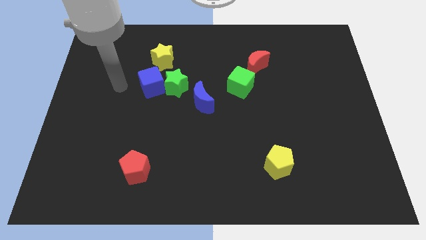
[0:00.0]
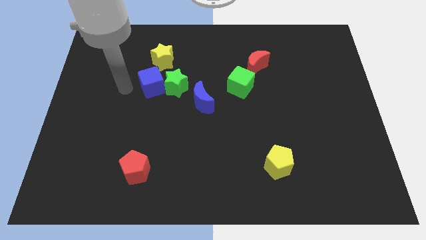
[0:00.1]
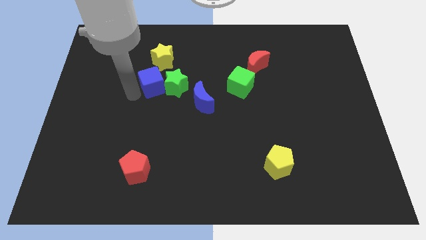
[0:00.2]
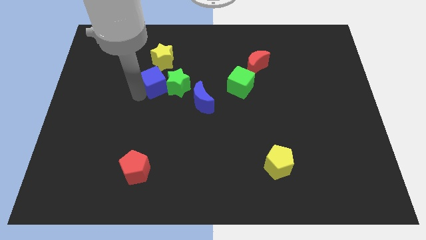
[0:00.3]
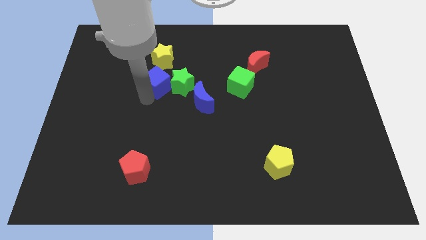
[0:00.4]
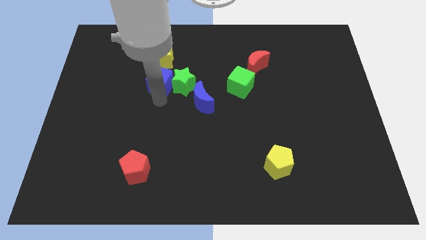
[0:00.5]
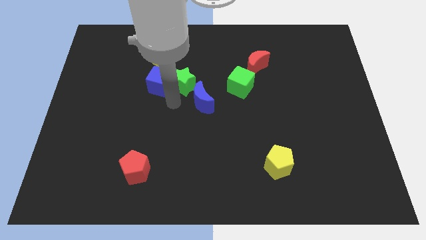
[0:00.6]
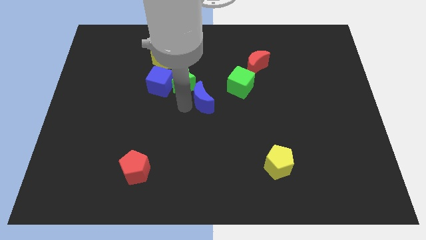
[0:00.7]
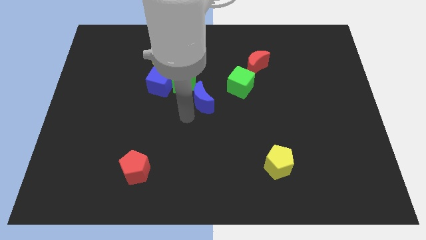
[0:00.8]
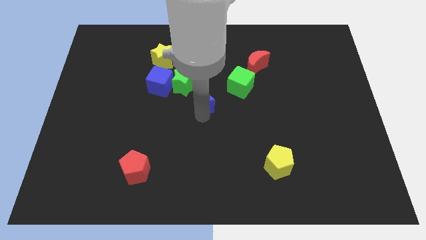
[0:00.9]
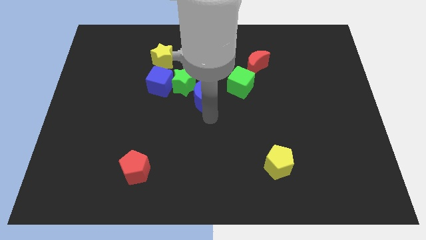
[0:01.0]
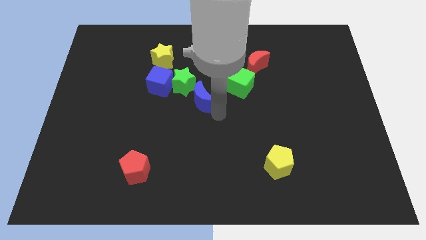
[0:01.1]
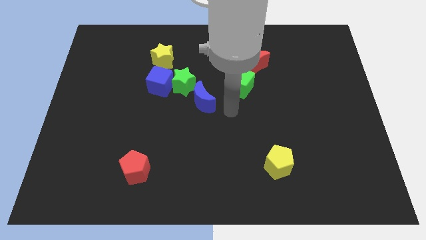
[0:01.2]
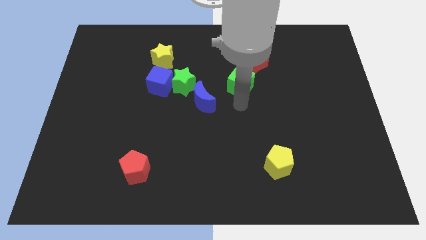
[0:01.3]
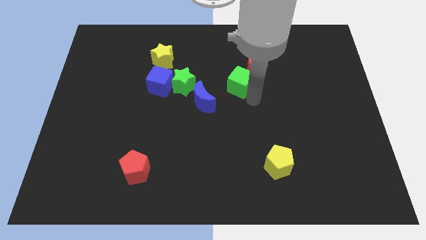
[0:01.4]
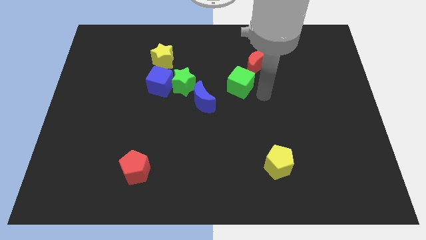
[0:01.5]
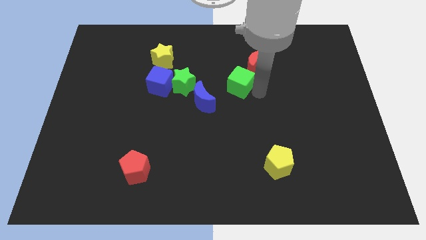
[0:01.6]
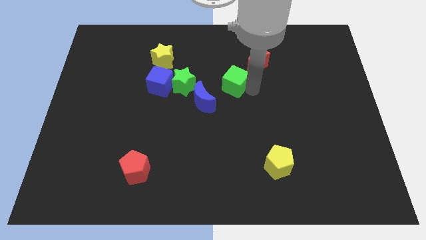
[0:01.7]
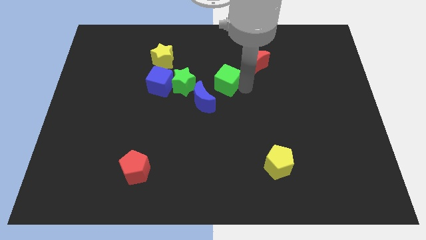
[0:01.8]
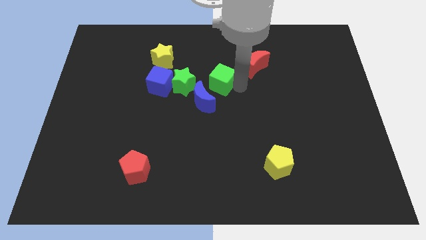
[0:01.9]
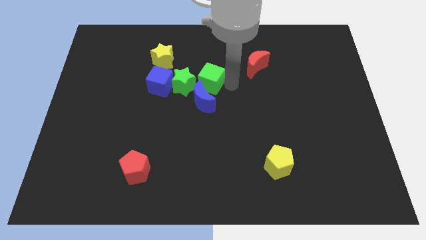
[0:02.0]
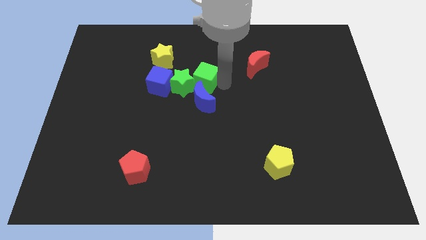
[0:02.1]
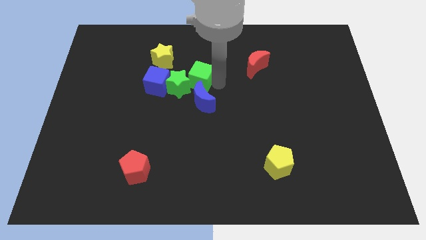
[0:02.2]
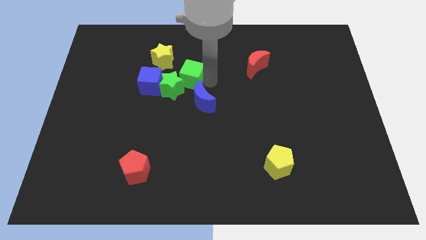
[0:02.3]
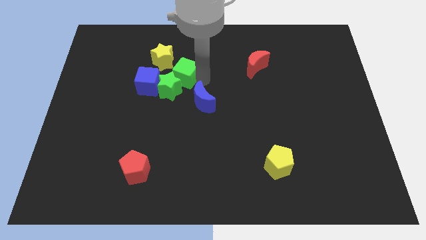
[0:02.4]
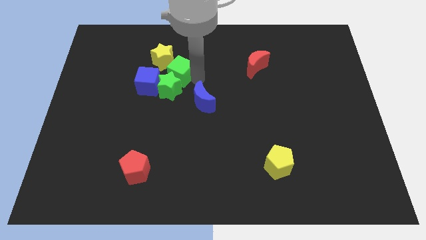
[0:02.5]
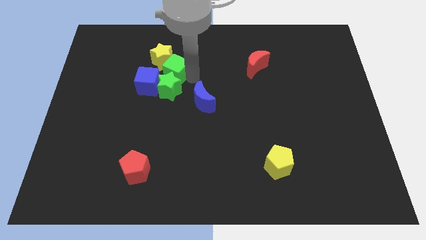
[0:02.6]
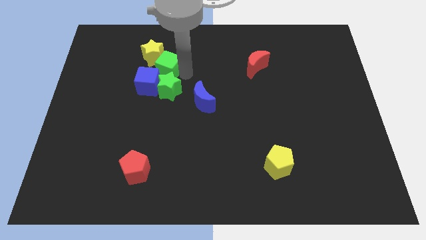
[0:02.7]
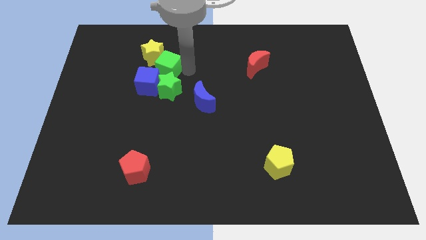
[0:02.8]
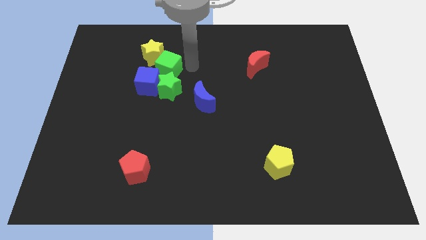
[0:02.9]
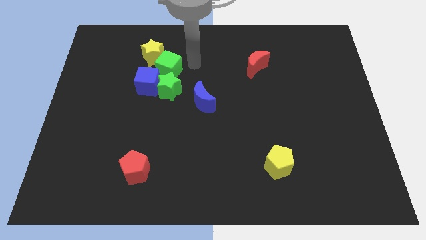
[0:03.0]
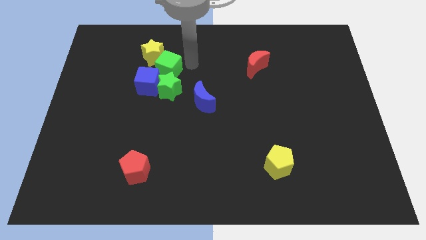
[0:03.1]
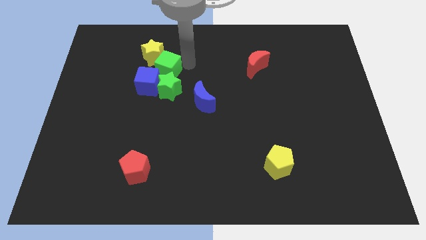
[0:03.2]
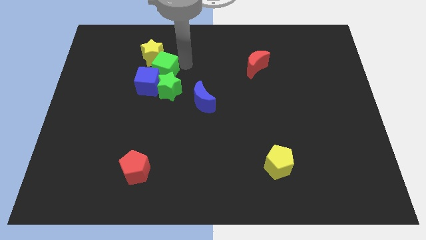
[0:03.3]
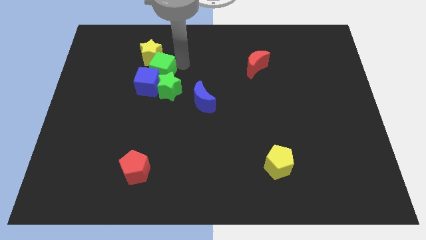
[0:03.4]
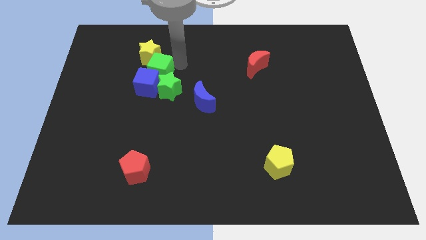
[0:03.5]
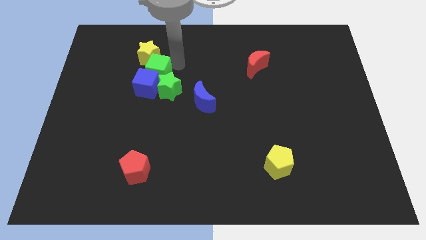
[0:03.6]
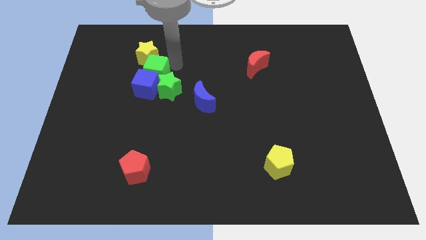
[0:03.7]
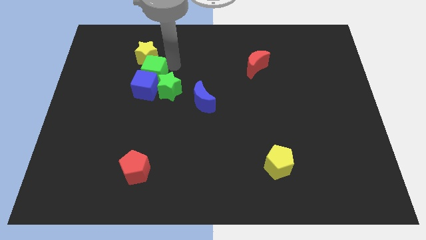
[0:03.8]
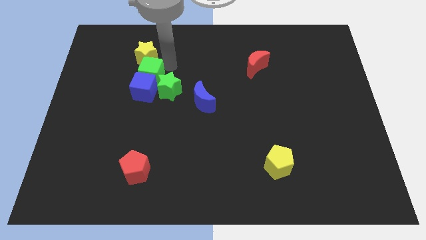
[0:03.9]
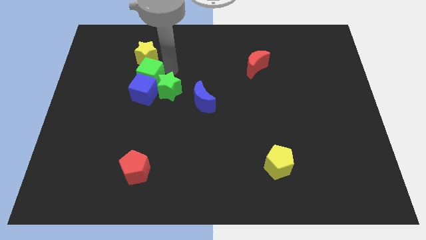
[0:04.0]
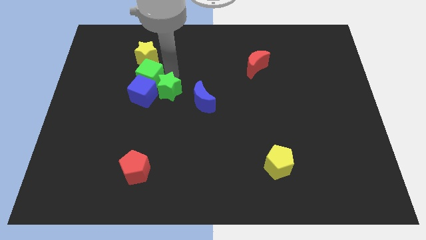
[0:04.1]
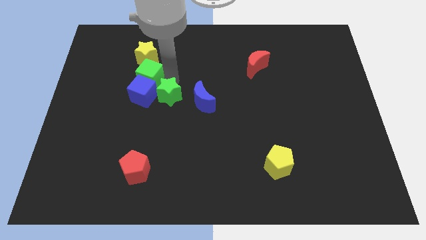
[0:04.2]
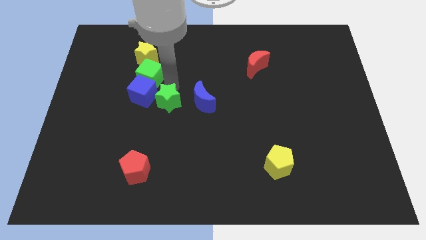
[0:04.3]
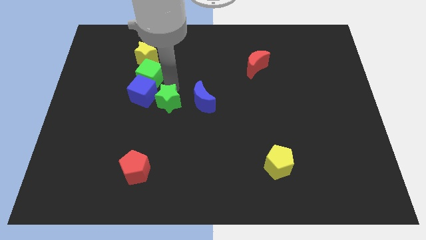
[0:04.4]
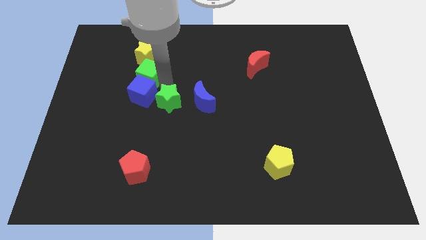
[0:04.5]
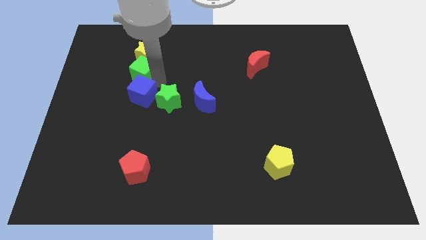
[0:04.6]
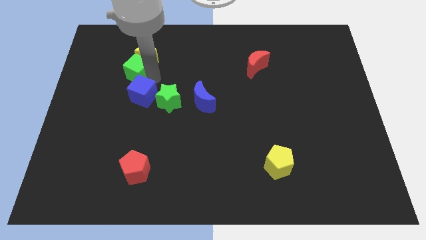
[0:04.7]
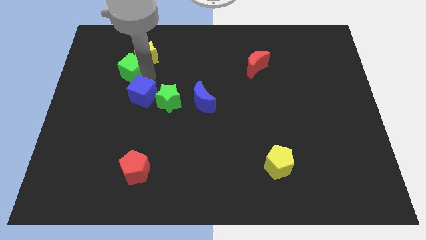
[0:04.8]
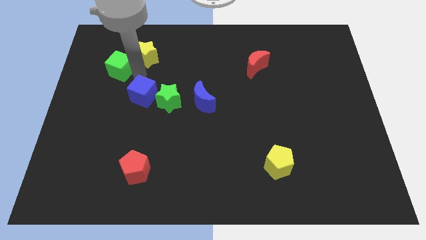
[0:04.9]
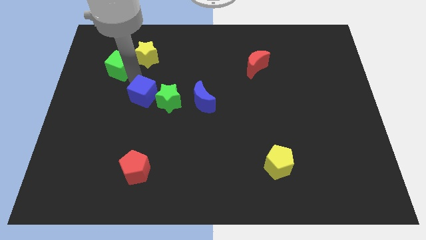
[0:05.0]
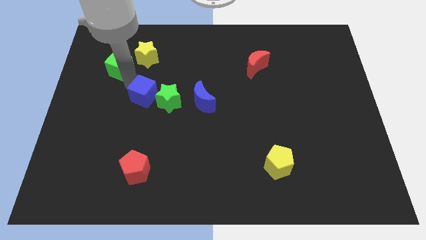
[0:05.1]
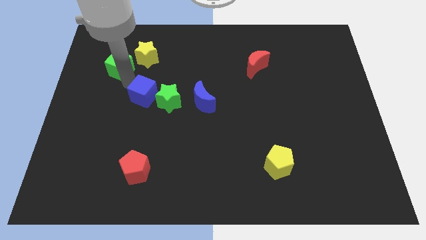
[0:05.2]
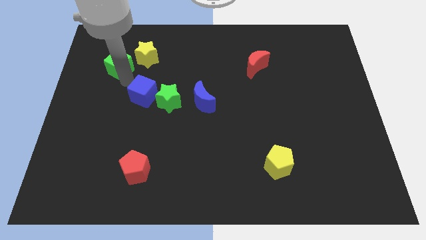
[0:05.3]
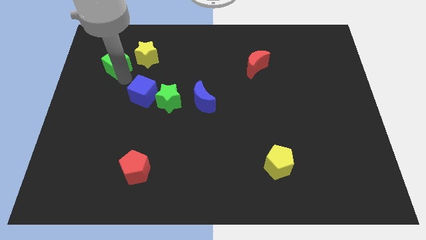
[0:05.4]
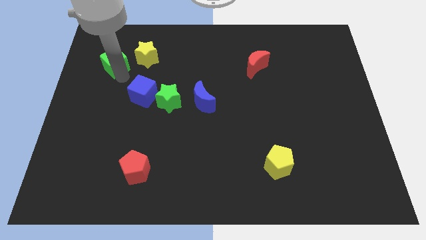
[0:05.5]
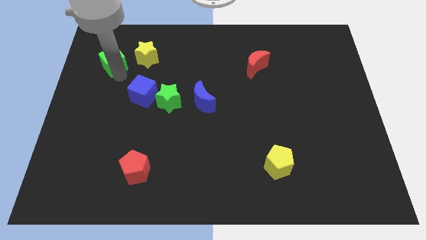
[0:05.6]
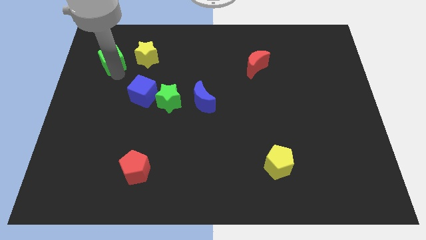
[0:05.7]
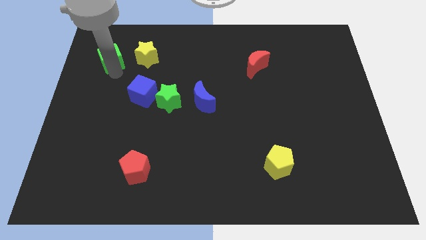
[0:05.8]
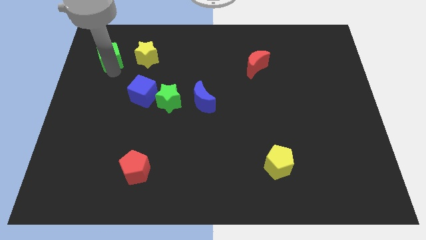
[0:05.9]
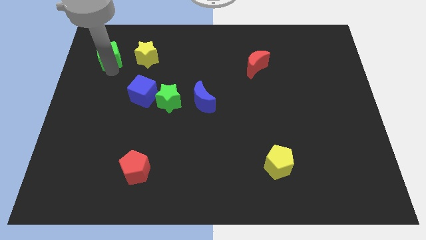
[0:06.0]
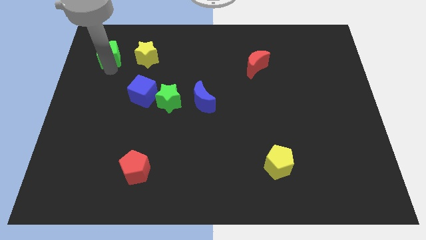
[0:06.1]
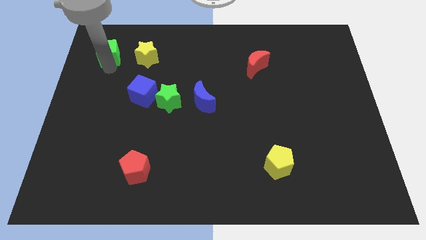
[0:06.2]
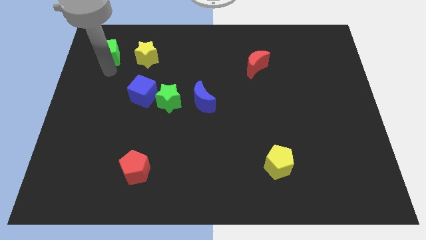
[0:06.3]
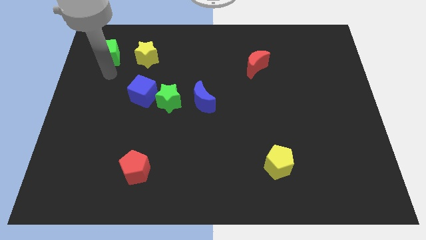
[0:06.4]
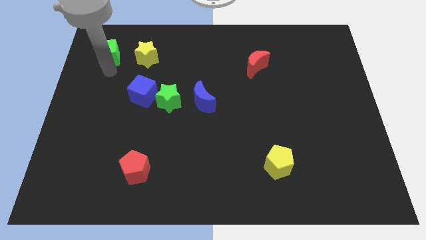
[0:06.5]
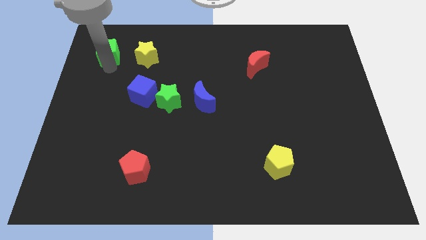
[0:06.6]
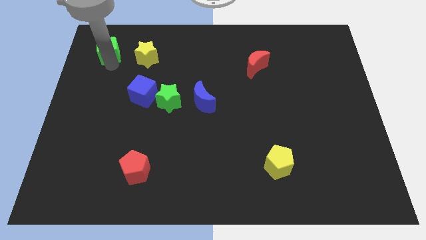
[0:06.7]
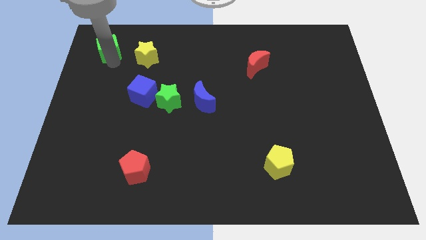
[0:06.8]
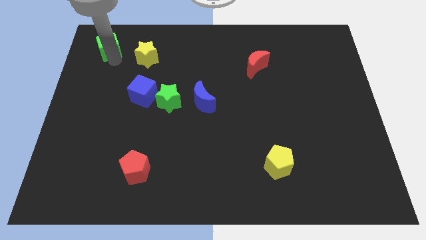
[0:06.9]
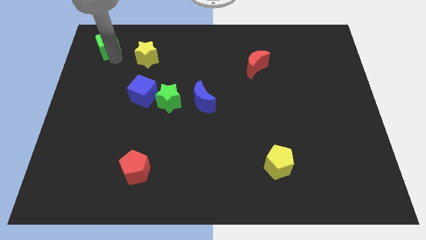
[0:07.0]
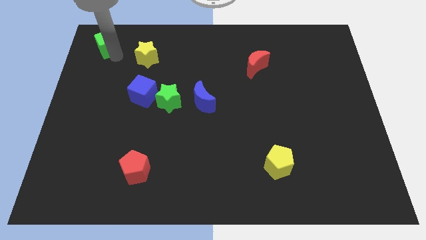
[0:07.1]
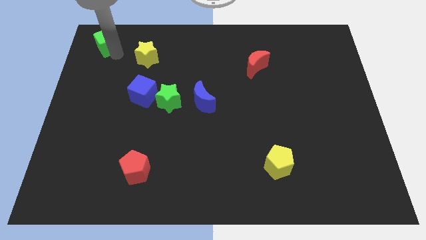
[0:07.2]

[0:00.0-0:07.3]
put the green cube to the top left of the board
